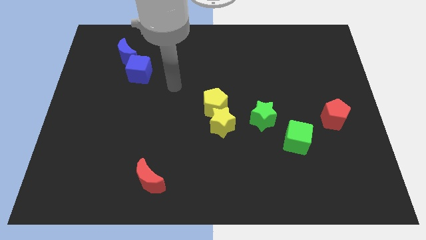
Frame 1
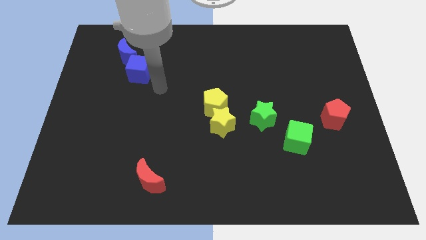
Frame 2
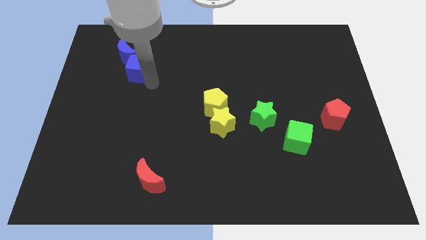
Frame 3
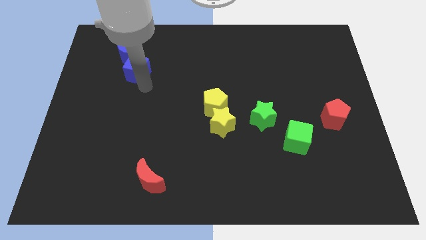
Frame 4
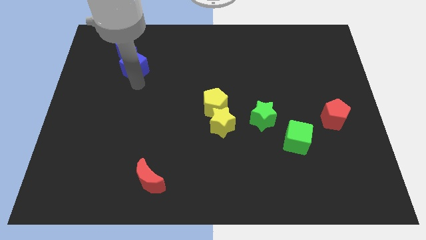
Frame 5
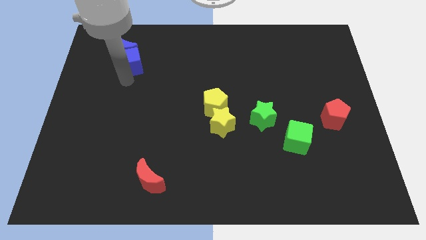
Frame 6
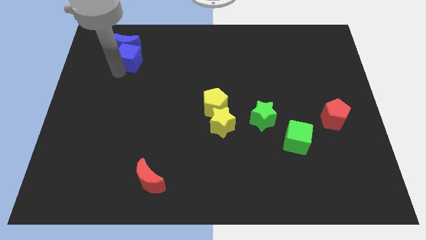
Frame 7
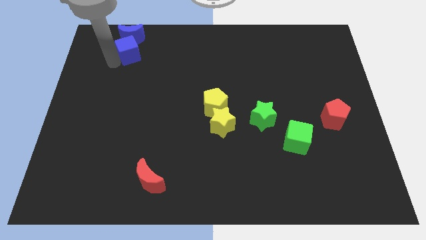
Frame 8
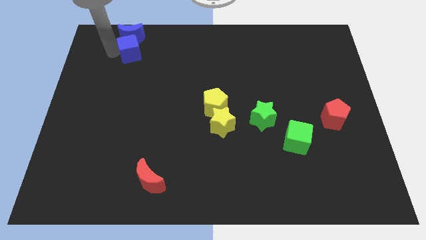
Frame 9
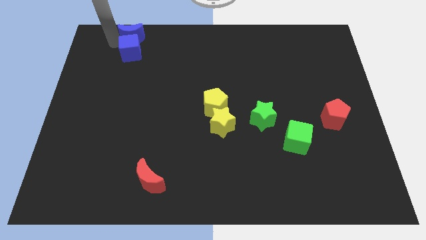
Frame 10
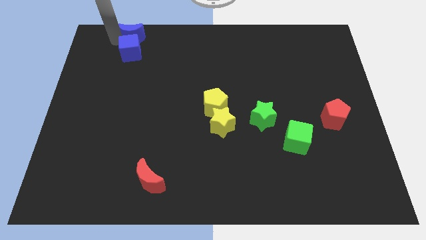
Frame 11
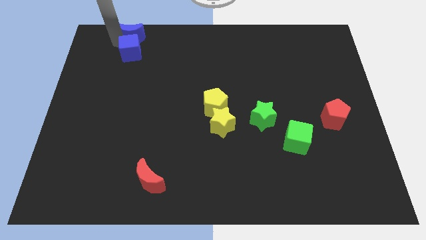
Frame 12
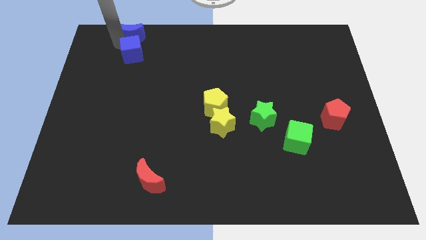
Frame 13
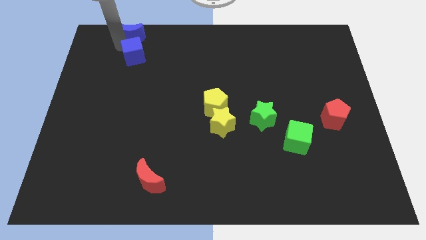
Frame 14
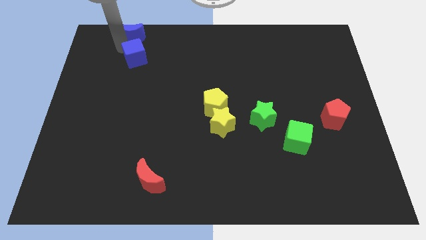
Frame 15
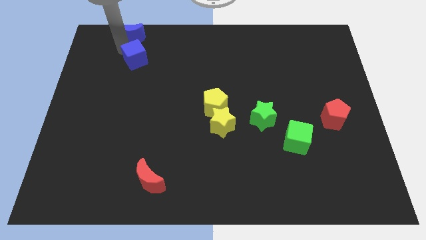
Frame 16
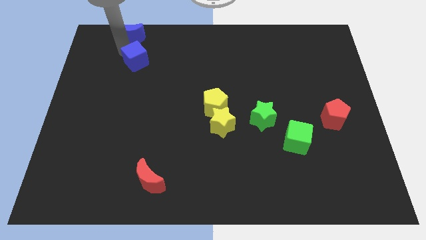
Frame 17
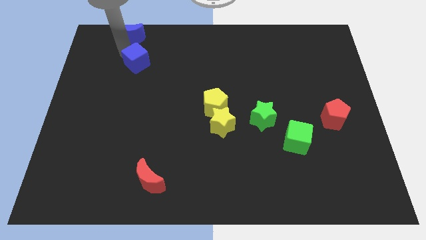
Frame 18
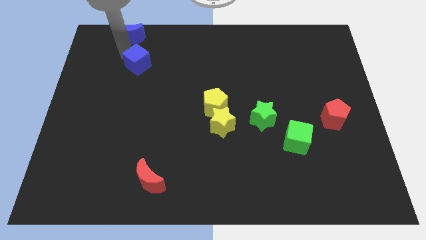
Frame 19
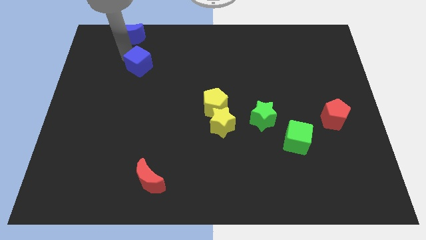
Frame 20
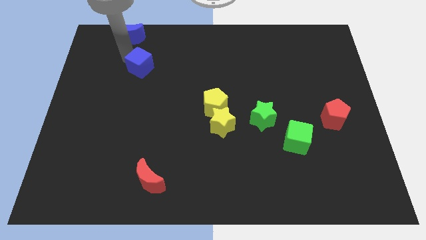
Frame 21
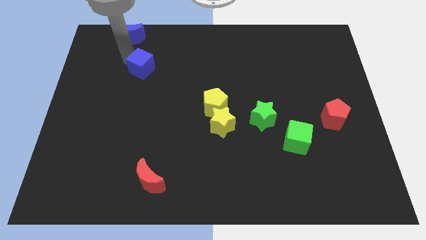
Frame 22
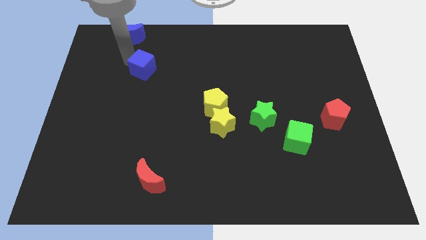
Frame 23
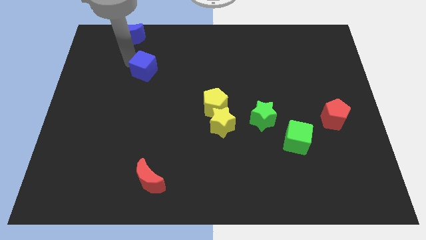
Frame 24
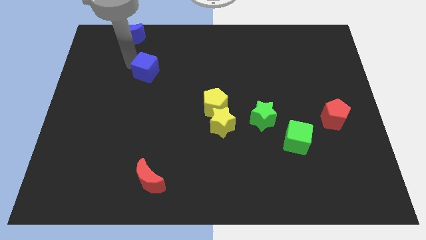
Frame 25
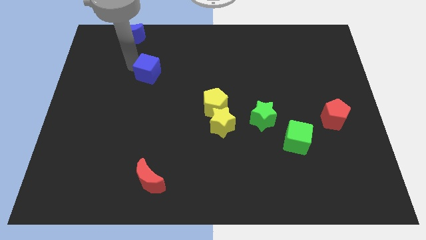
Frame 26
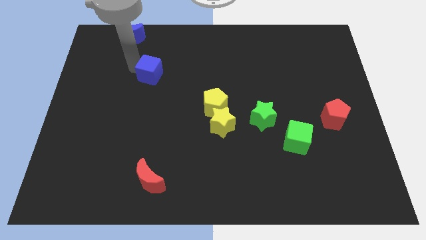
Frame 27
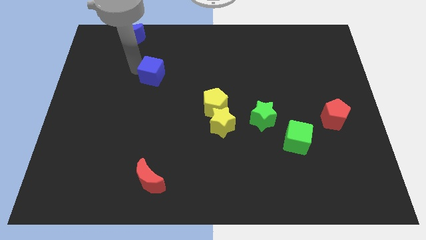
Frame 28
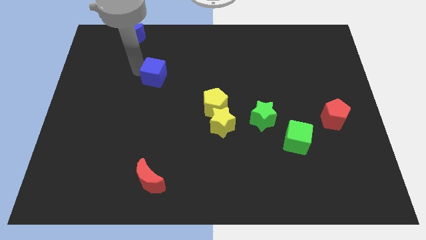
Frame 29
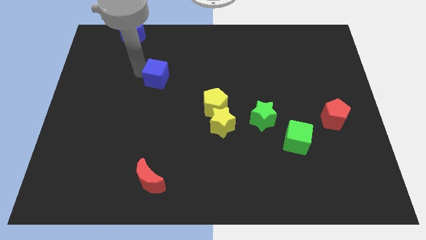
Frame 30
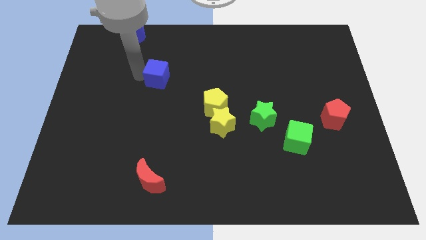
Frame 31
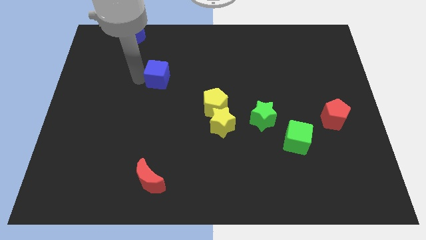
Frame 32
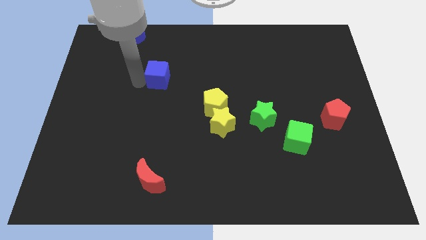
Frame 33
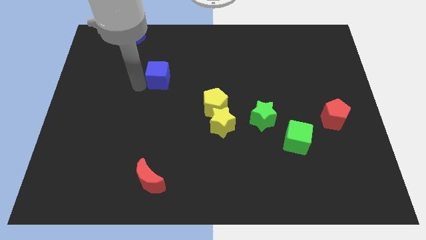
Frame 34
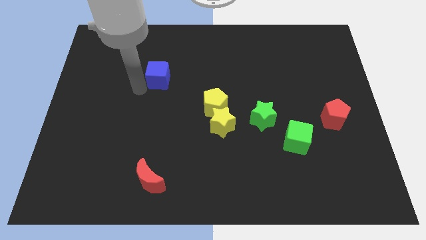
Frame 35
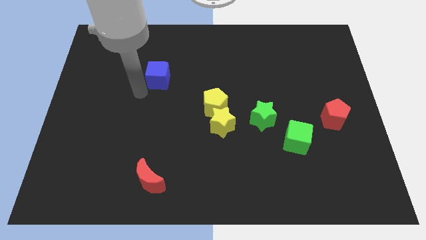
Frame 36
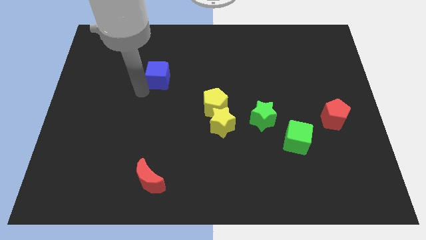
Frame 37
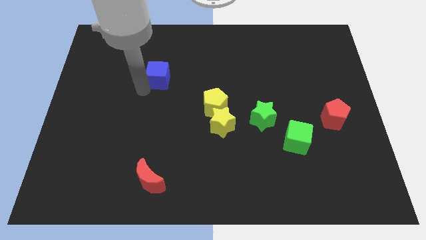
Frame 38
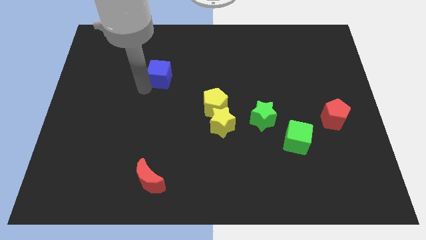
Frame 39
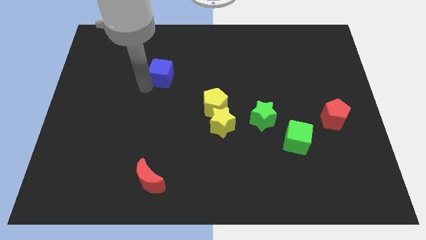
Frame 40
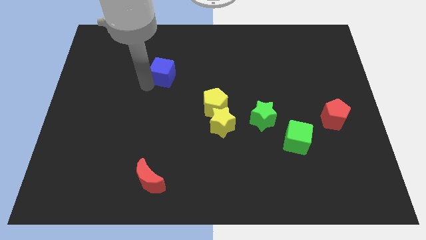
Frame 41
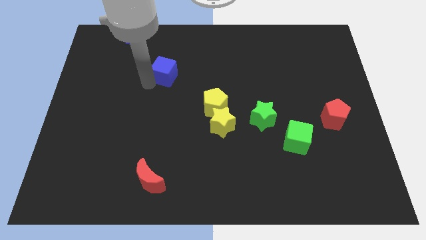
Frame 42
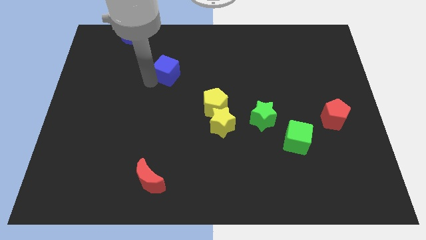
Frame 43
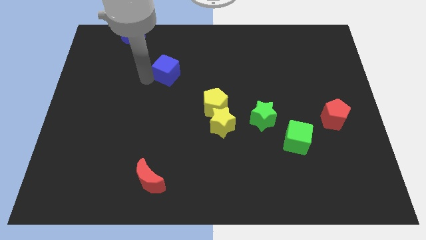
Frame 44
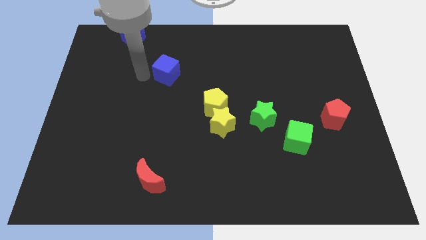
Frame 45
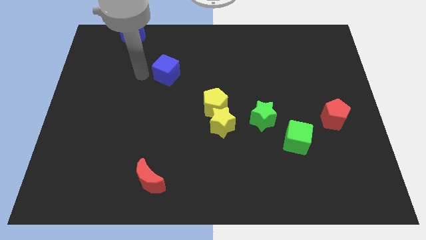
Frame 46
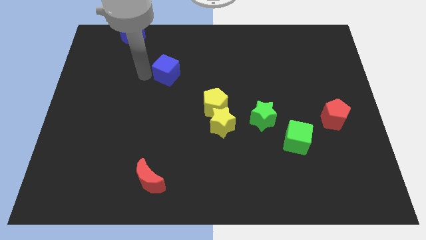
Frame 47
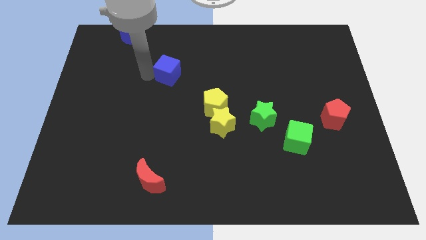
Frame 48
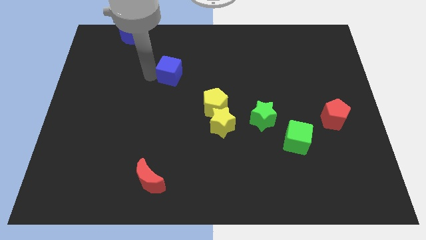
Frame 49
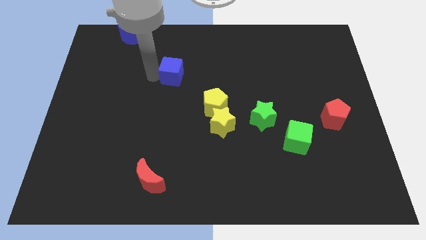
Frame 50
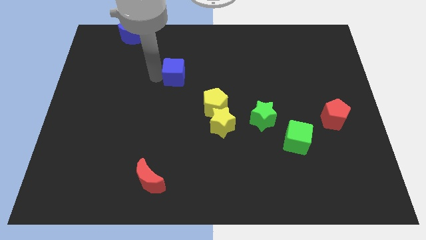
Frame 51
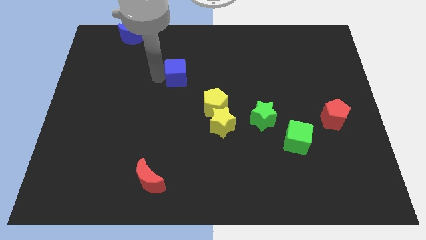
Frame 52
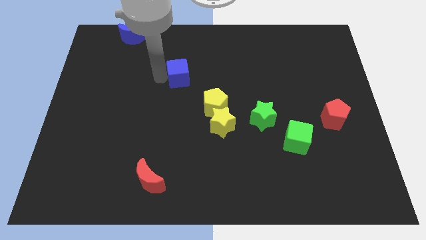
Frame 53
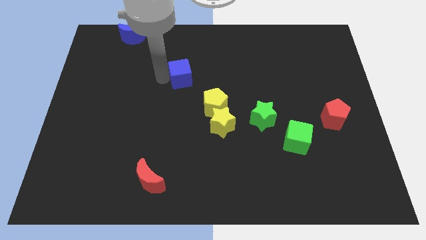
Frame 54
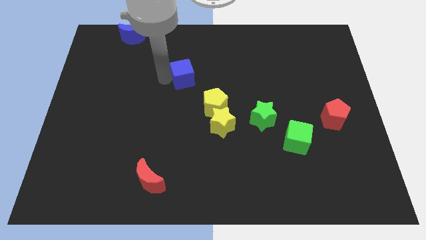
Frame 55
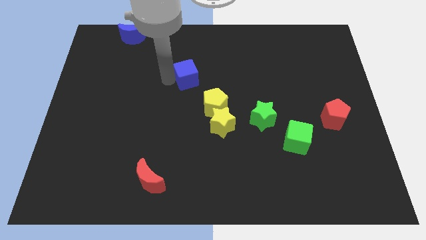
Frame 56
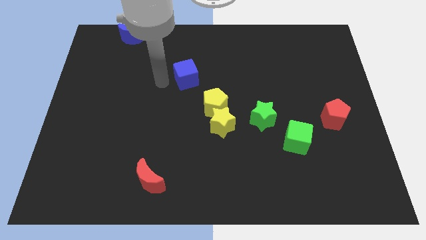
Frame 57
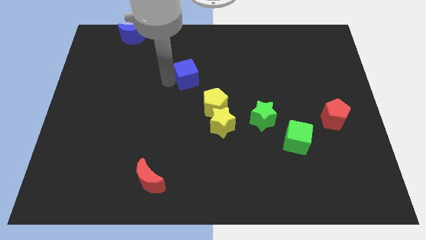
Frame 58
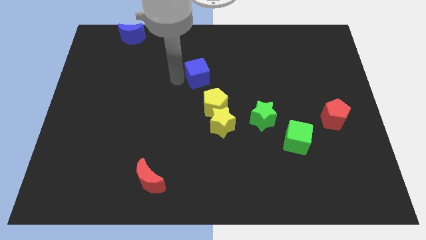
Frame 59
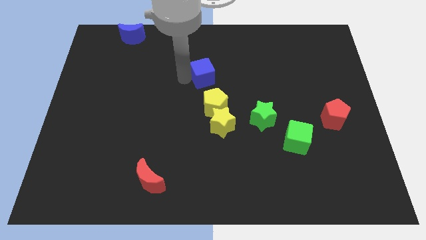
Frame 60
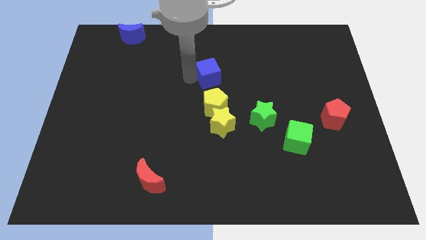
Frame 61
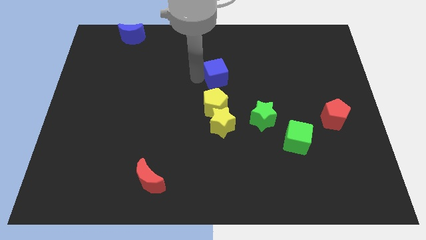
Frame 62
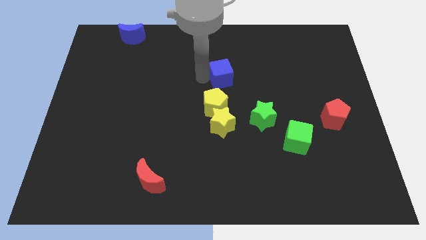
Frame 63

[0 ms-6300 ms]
move the blue cube to the right

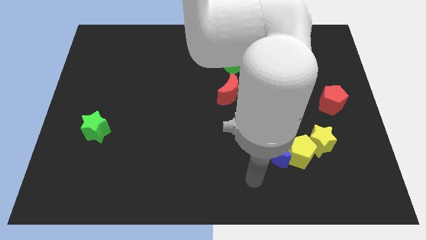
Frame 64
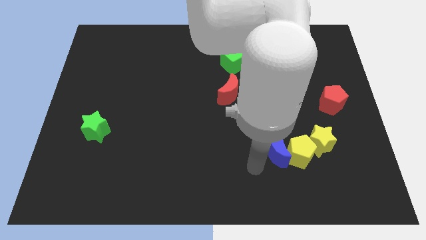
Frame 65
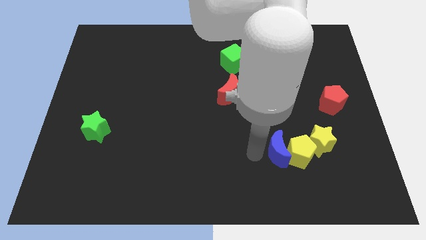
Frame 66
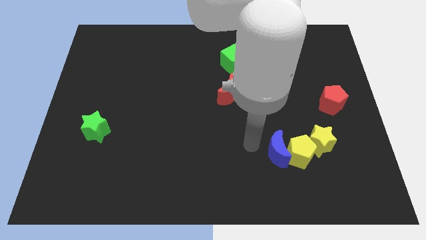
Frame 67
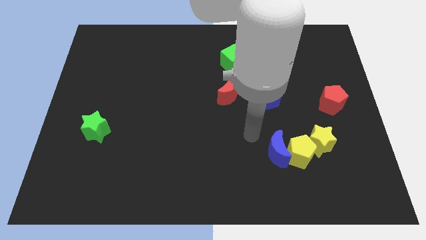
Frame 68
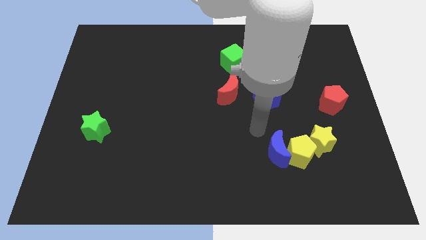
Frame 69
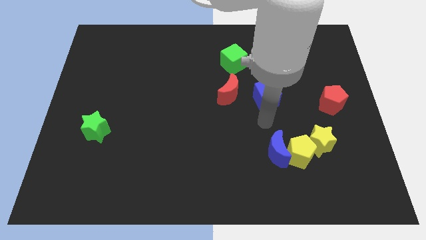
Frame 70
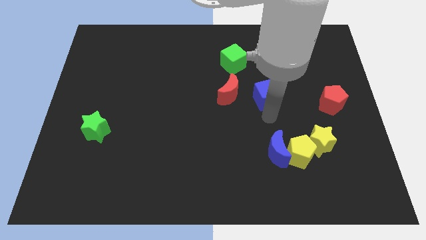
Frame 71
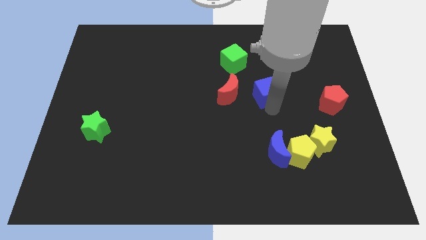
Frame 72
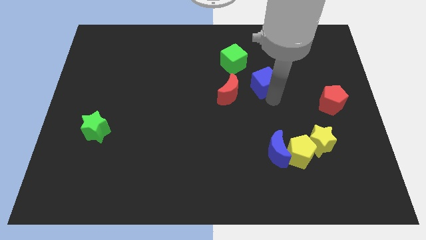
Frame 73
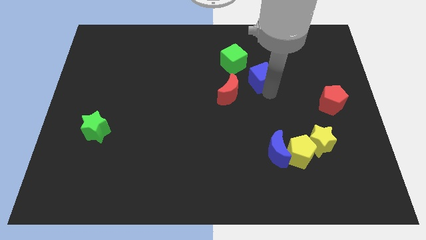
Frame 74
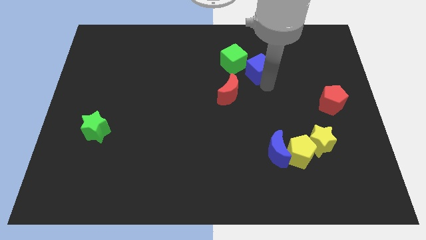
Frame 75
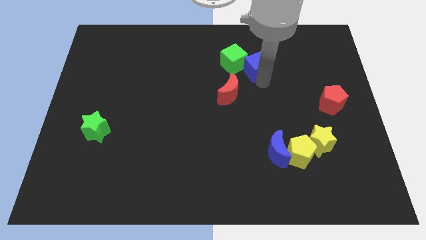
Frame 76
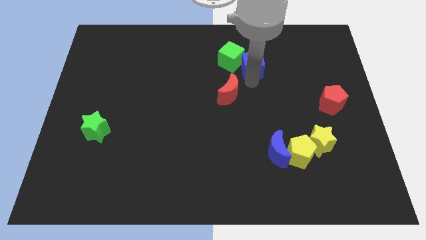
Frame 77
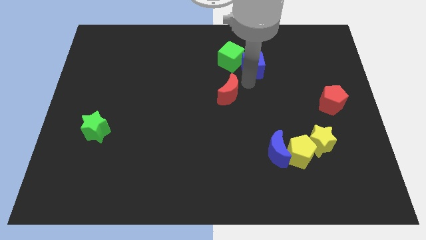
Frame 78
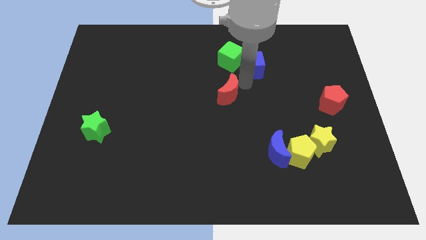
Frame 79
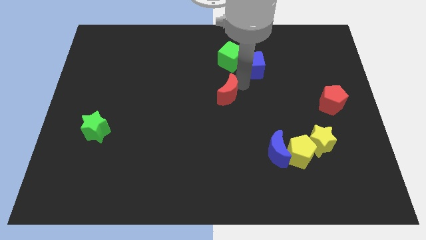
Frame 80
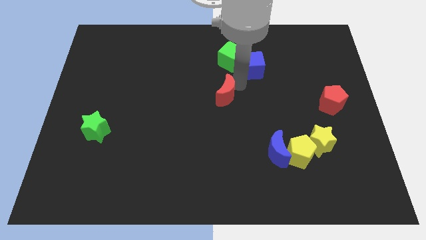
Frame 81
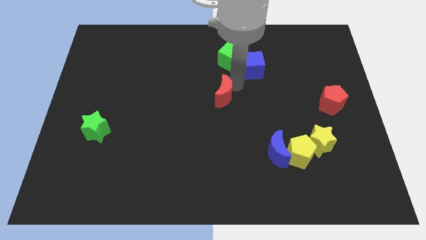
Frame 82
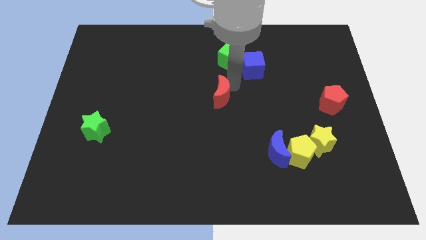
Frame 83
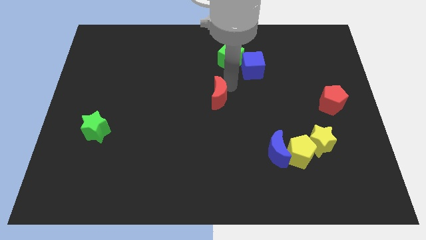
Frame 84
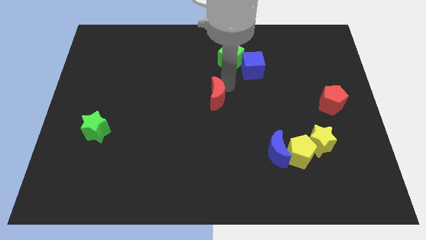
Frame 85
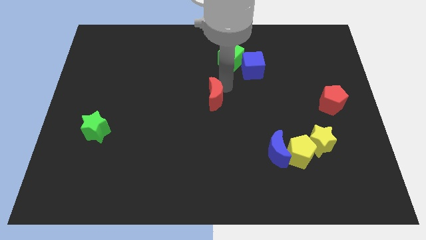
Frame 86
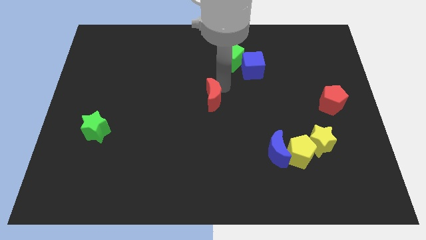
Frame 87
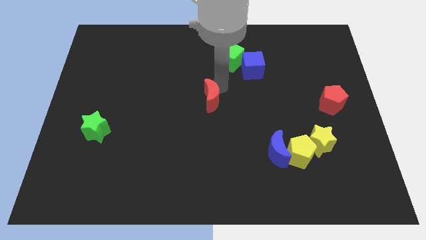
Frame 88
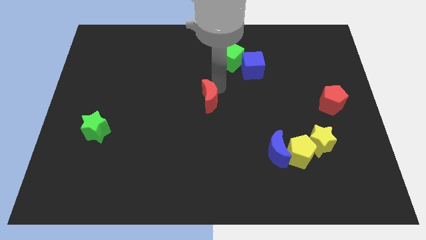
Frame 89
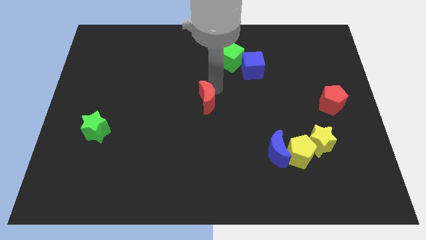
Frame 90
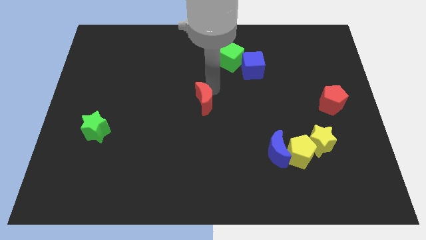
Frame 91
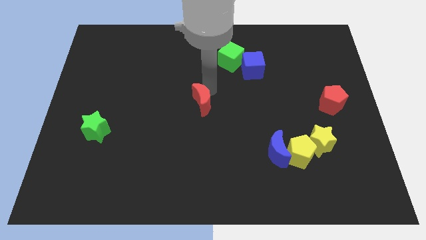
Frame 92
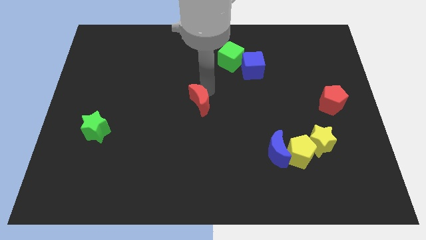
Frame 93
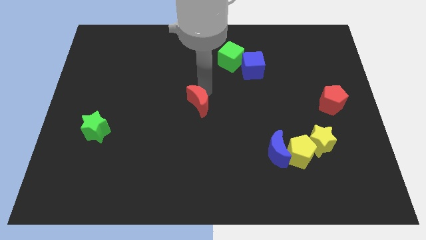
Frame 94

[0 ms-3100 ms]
move the red moon a bit downwards and then left
